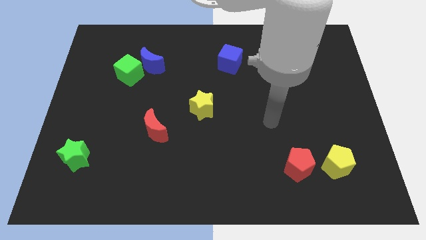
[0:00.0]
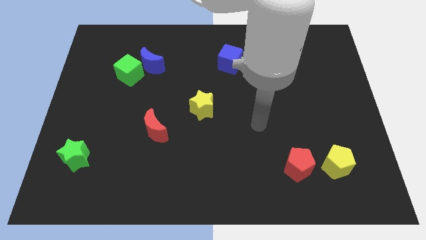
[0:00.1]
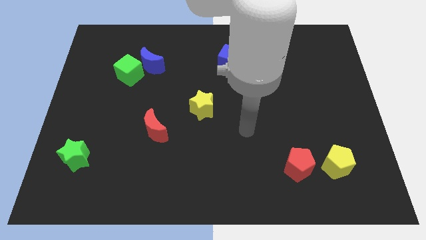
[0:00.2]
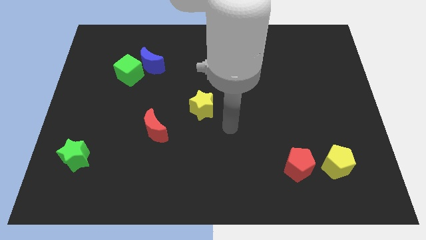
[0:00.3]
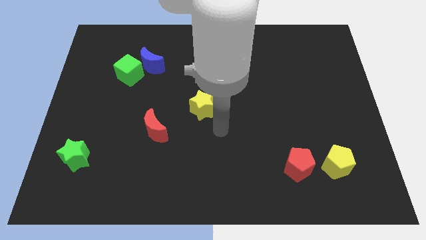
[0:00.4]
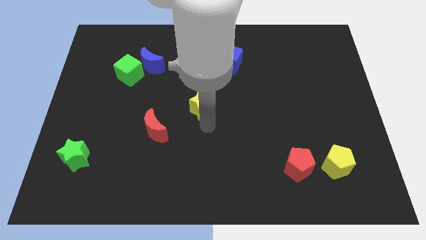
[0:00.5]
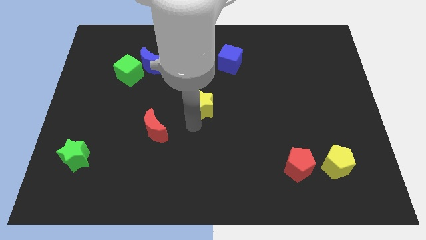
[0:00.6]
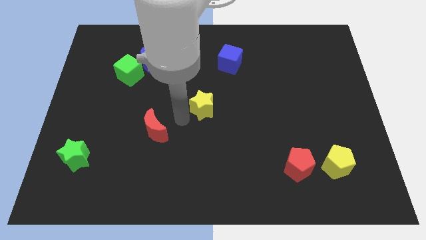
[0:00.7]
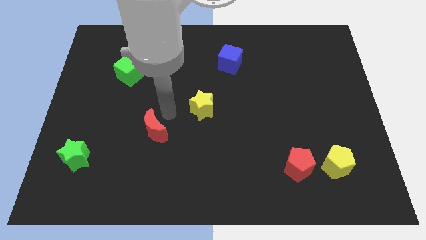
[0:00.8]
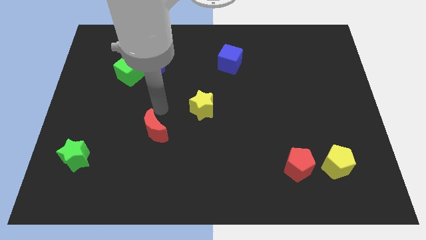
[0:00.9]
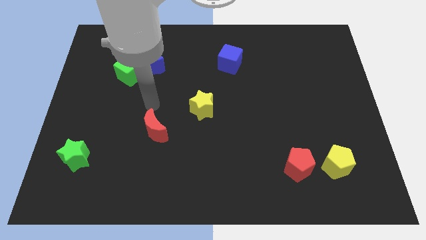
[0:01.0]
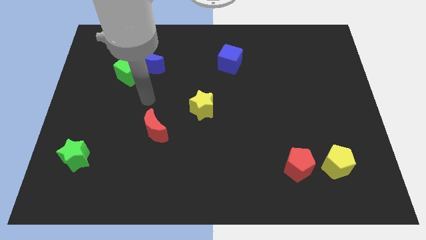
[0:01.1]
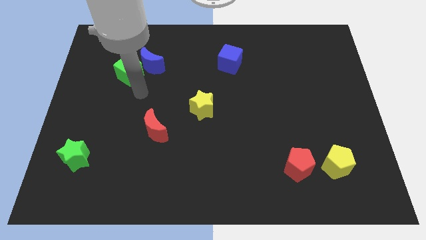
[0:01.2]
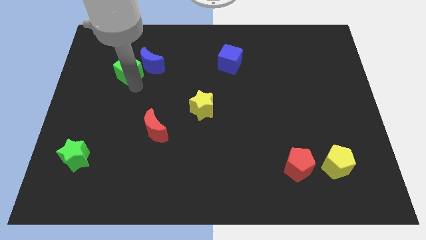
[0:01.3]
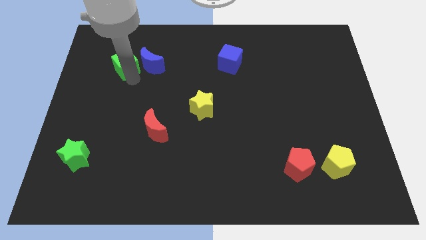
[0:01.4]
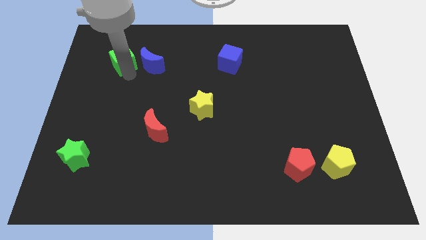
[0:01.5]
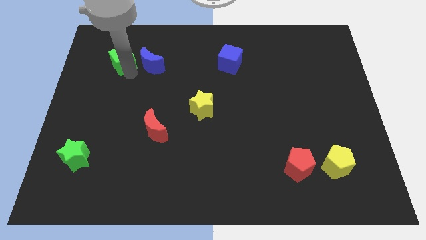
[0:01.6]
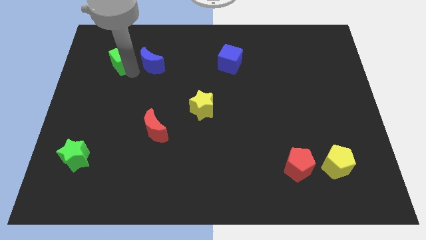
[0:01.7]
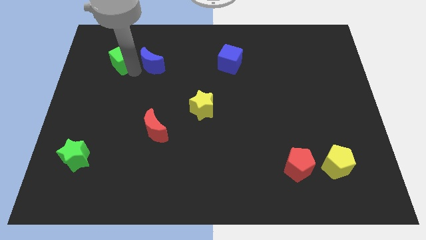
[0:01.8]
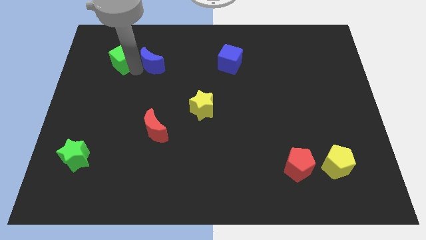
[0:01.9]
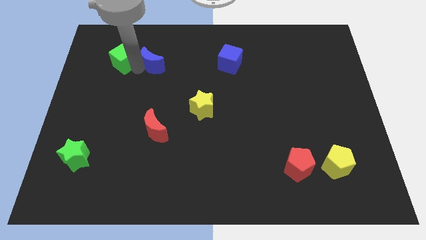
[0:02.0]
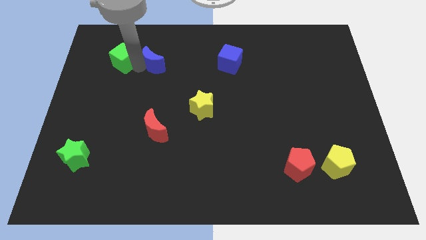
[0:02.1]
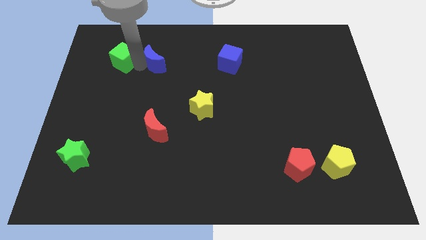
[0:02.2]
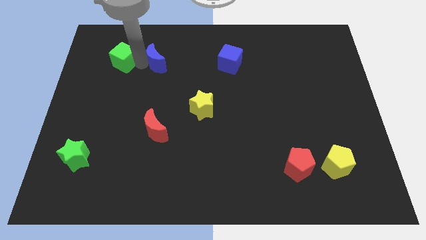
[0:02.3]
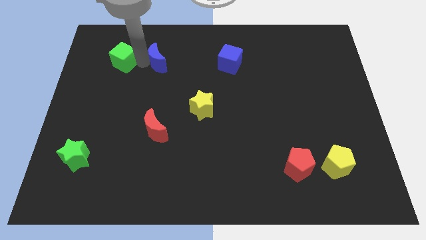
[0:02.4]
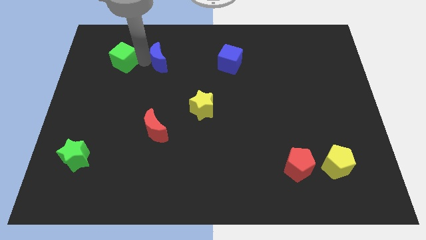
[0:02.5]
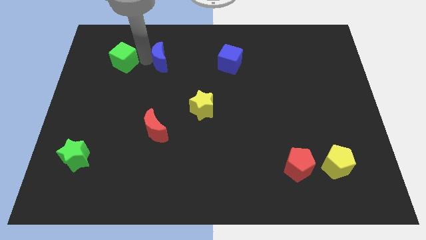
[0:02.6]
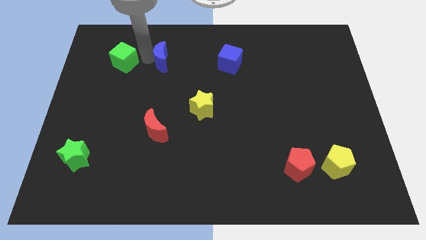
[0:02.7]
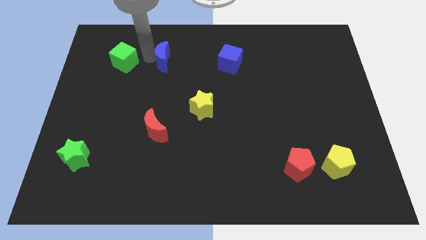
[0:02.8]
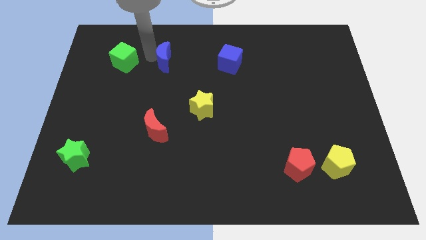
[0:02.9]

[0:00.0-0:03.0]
separate the blue moon from the green cube

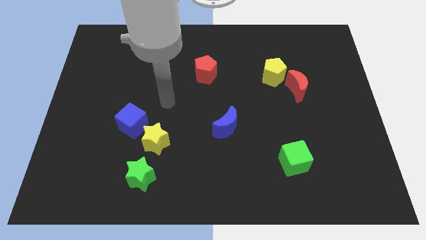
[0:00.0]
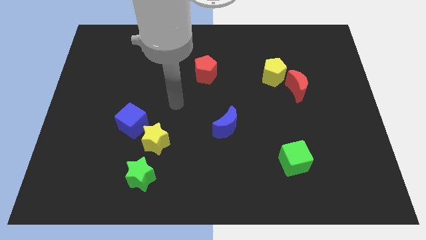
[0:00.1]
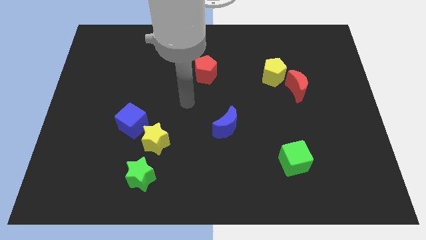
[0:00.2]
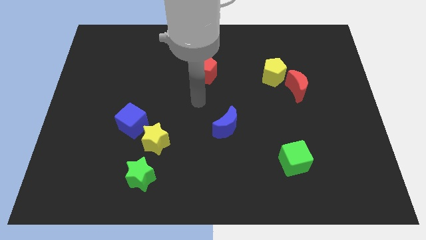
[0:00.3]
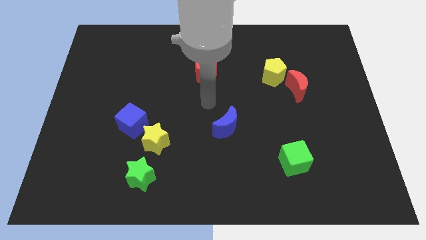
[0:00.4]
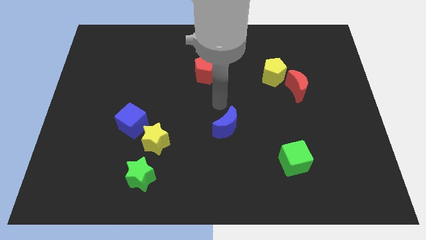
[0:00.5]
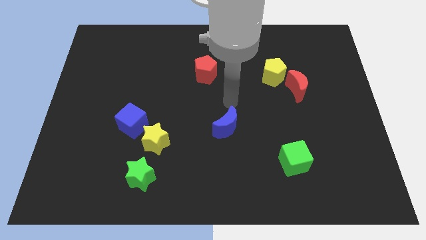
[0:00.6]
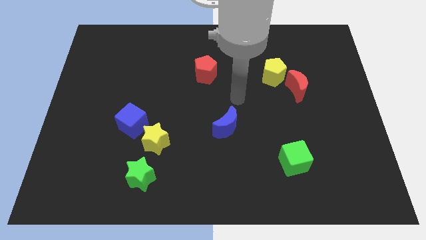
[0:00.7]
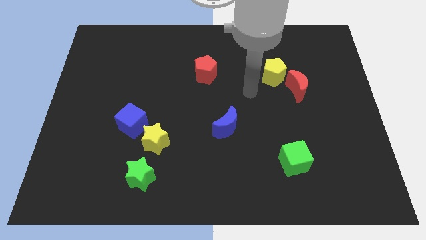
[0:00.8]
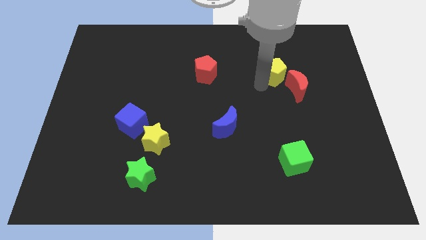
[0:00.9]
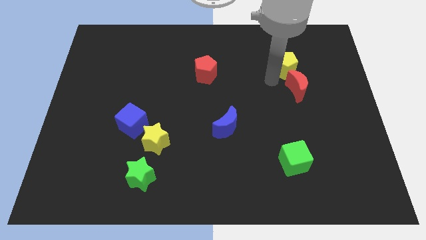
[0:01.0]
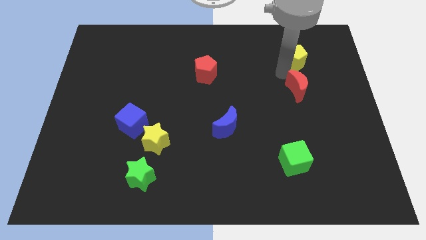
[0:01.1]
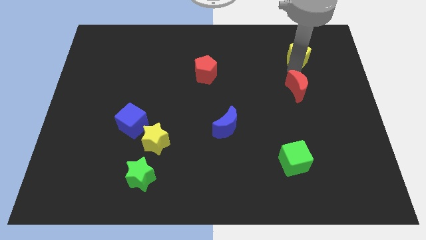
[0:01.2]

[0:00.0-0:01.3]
move the red moon away from the yellow pentagon

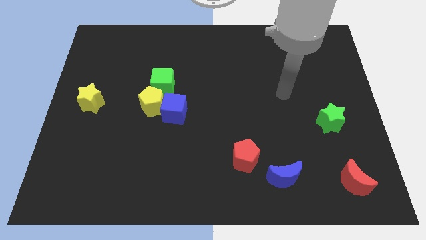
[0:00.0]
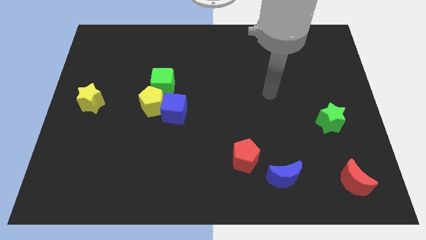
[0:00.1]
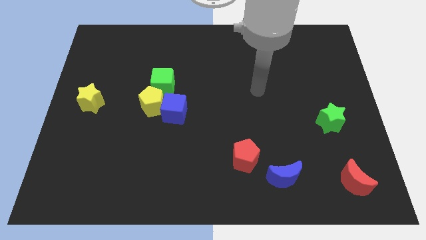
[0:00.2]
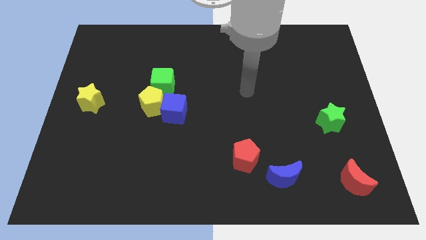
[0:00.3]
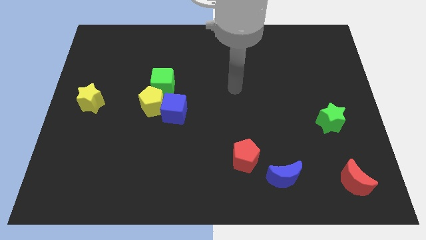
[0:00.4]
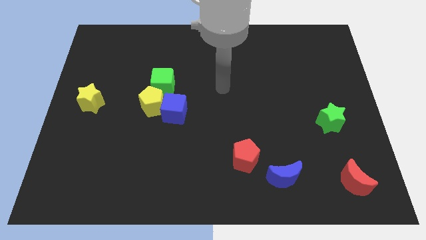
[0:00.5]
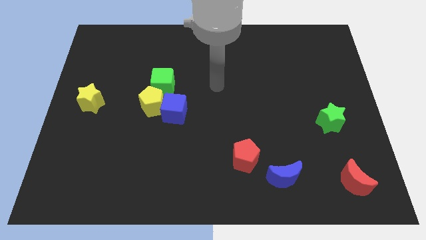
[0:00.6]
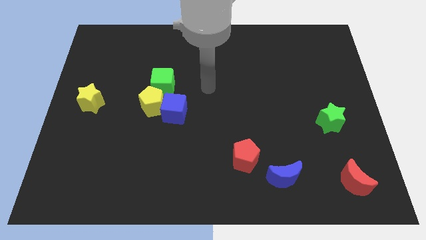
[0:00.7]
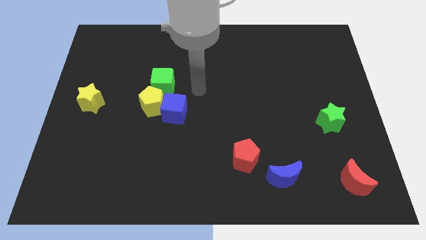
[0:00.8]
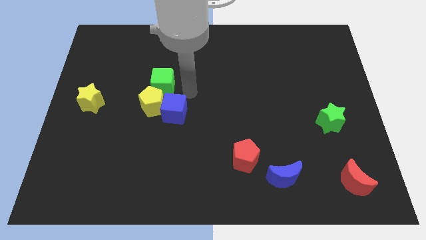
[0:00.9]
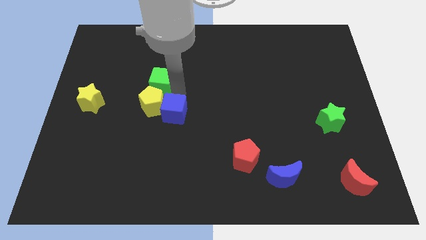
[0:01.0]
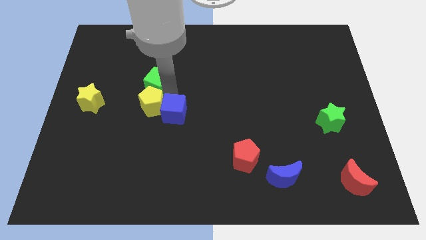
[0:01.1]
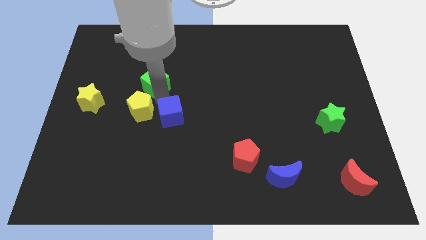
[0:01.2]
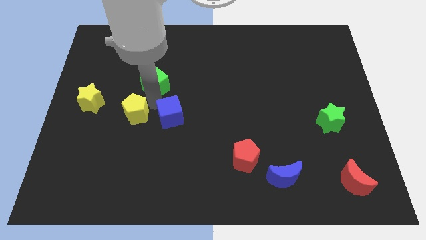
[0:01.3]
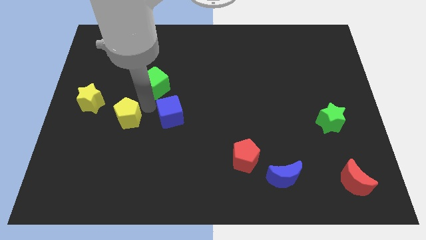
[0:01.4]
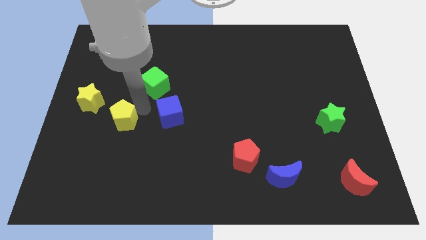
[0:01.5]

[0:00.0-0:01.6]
separate the yellow pentagon from the blue cube and green cube

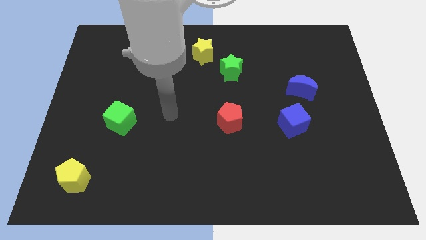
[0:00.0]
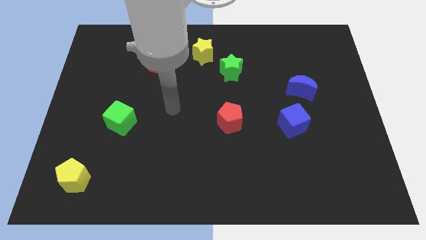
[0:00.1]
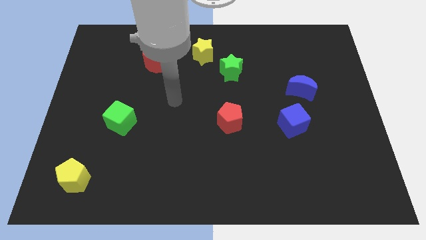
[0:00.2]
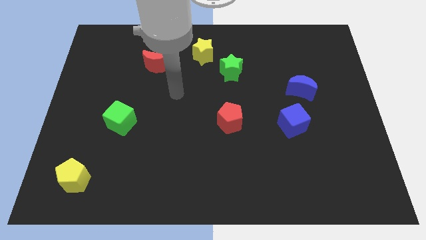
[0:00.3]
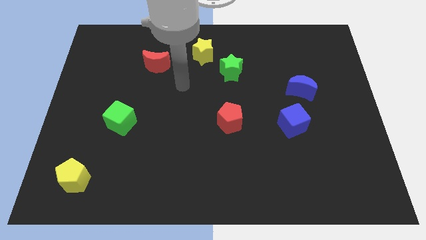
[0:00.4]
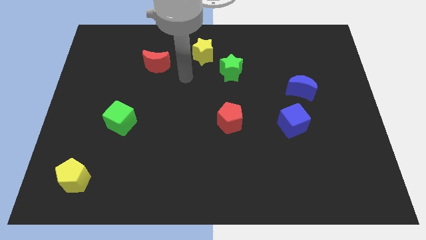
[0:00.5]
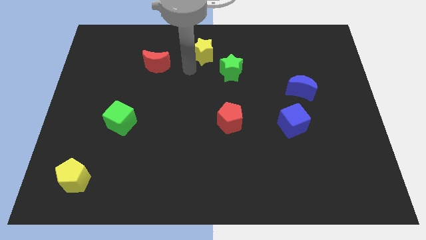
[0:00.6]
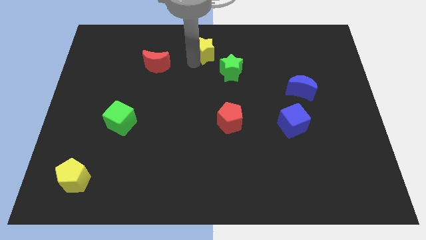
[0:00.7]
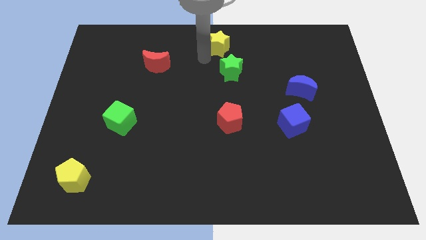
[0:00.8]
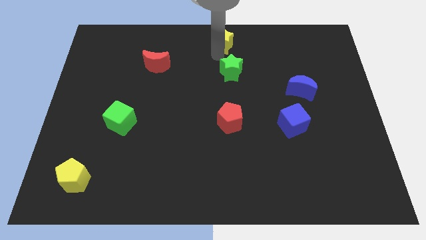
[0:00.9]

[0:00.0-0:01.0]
pull the green star apart from the yellow star

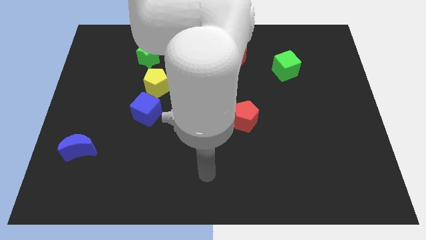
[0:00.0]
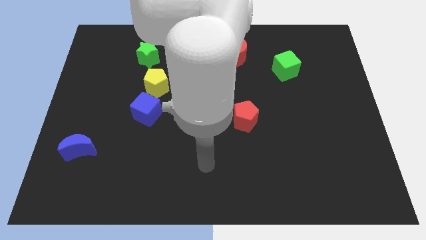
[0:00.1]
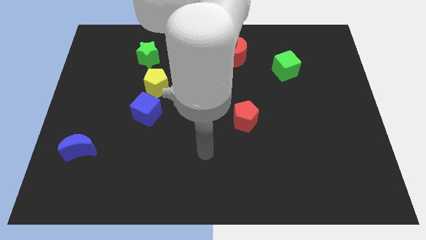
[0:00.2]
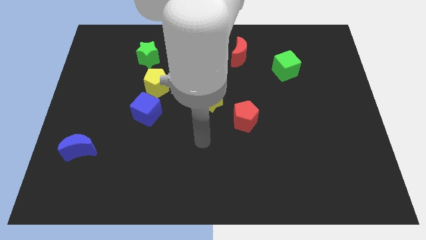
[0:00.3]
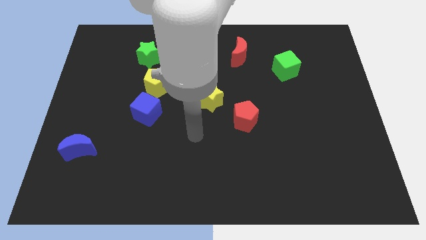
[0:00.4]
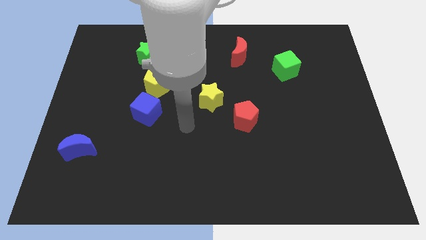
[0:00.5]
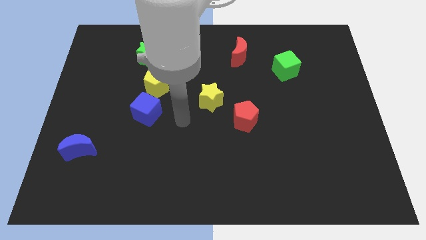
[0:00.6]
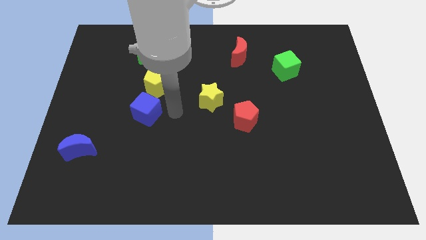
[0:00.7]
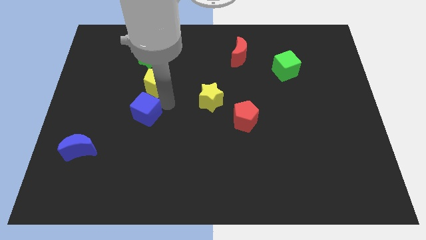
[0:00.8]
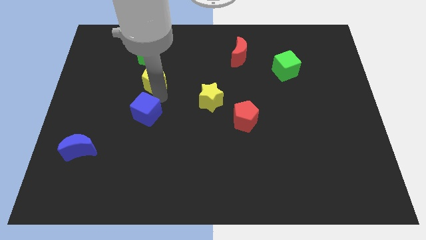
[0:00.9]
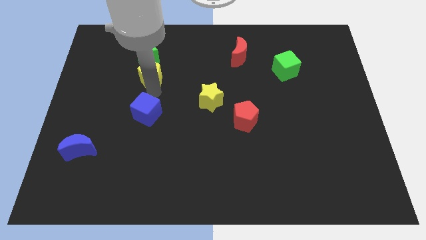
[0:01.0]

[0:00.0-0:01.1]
pull the blue cube apart from the yellow pentagon

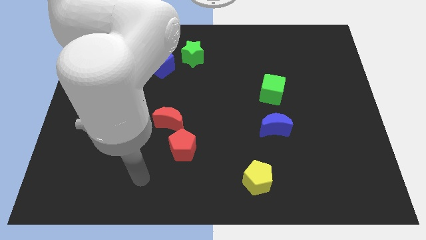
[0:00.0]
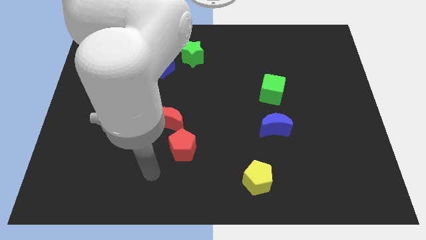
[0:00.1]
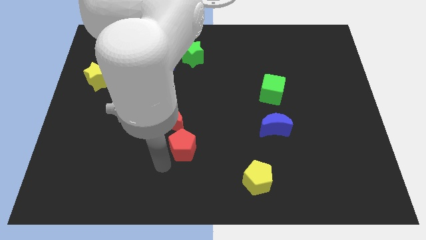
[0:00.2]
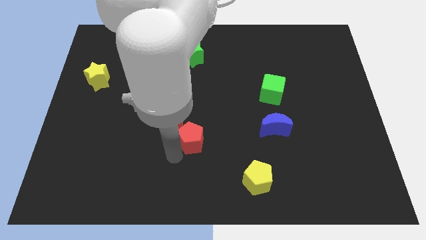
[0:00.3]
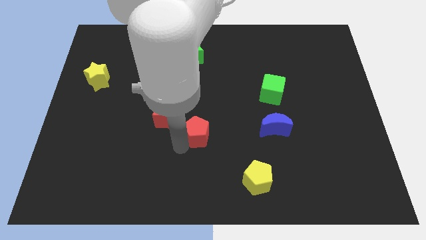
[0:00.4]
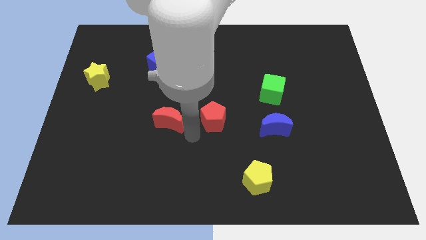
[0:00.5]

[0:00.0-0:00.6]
pull the red moon apart from the red pentagon

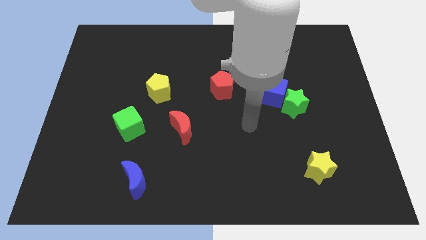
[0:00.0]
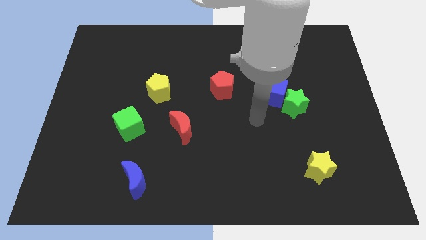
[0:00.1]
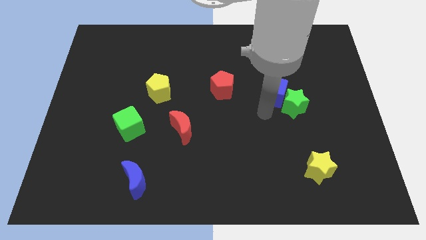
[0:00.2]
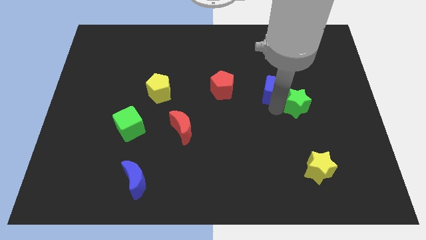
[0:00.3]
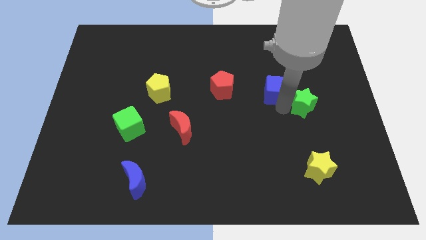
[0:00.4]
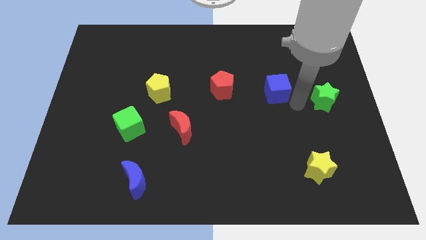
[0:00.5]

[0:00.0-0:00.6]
move the blue cube away from the green star
